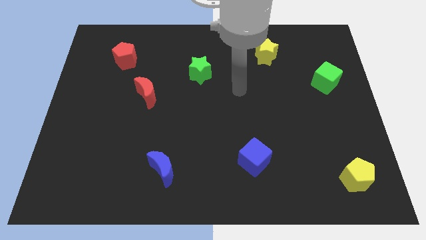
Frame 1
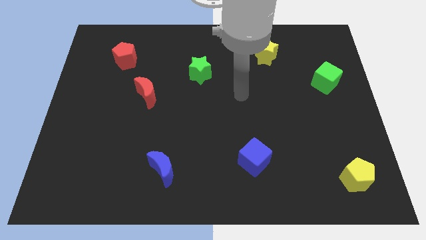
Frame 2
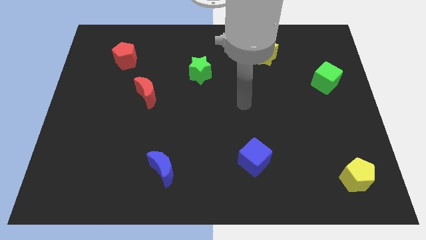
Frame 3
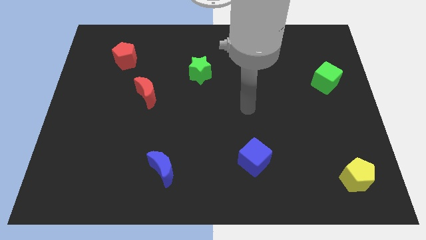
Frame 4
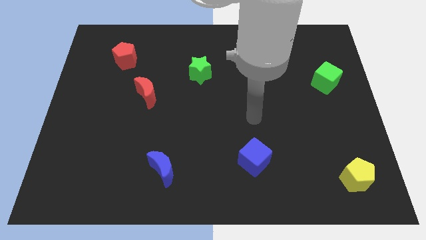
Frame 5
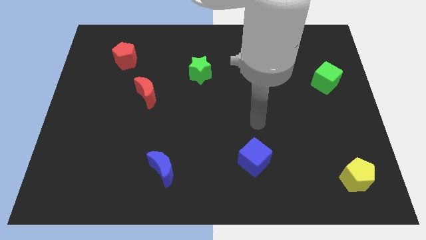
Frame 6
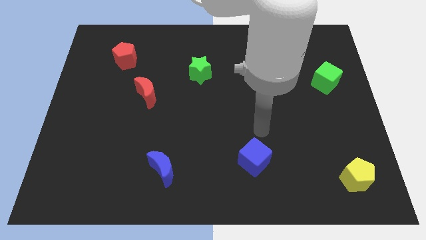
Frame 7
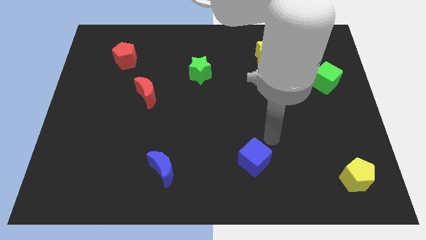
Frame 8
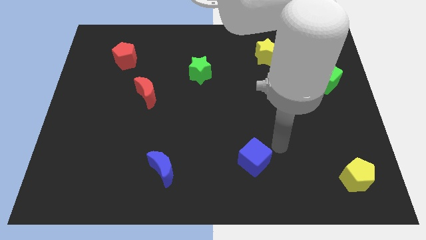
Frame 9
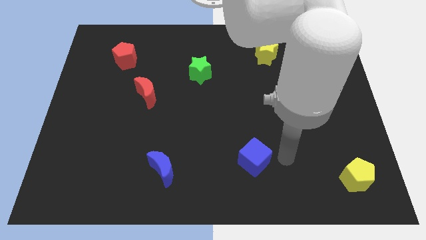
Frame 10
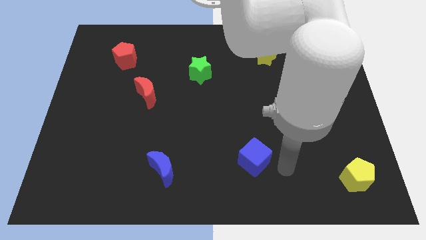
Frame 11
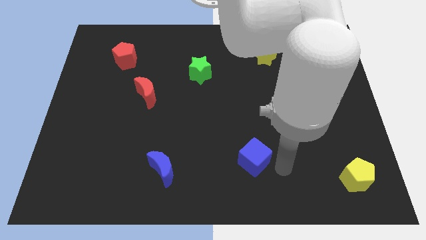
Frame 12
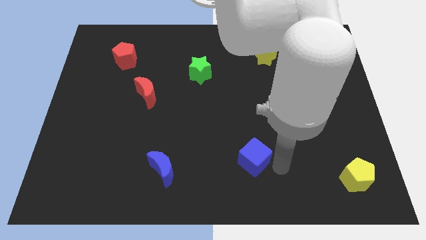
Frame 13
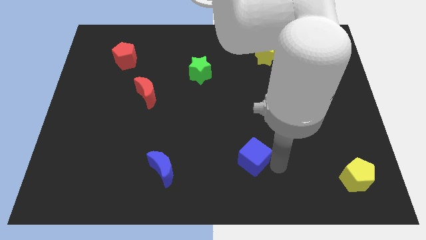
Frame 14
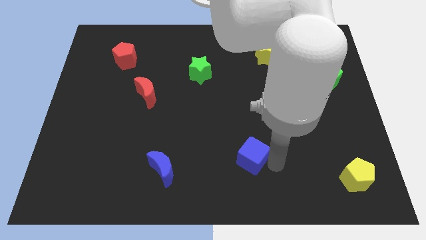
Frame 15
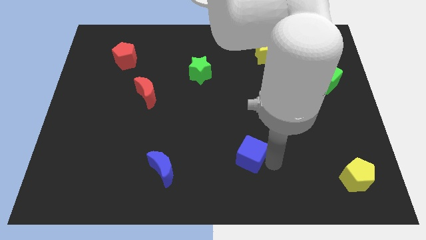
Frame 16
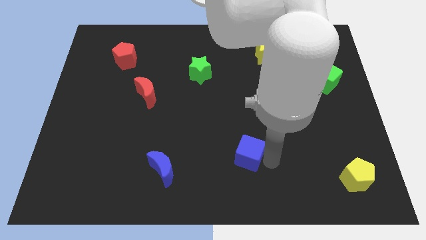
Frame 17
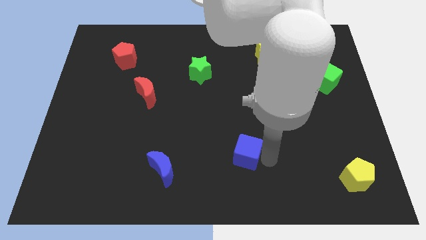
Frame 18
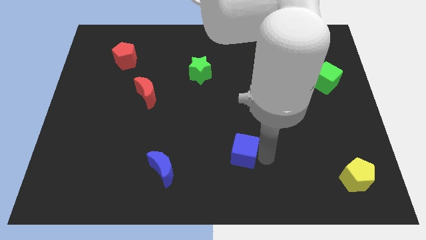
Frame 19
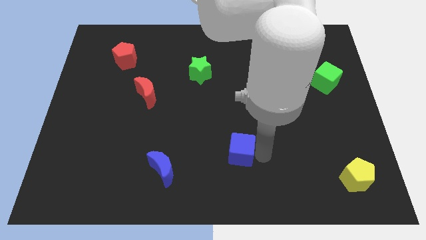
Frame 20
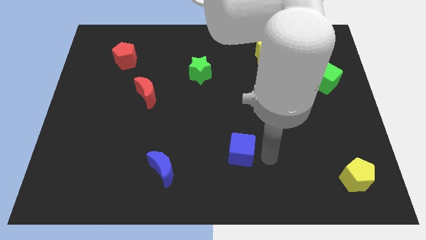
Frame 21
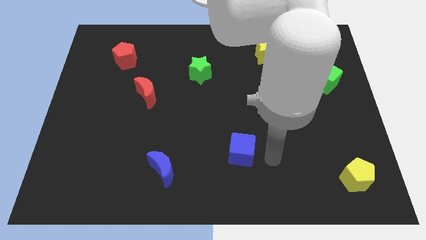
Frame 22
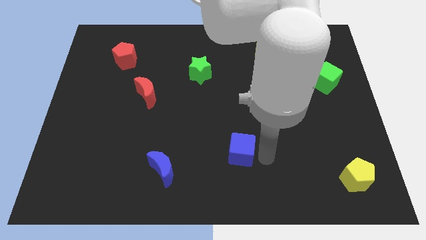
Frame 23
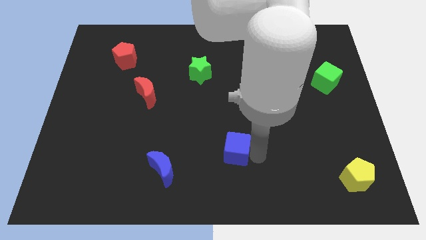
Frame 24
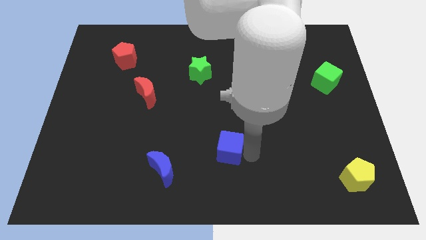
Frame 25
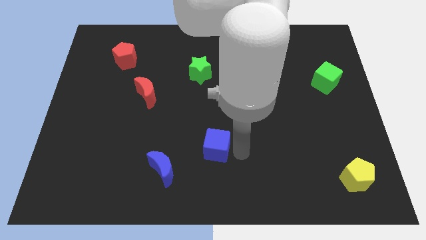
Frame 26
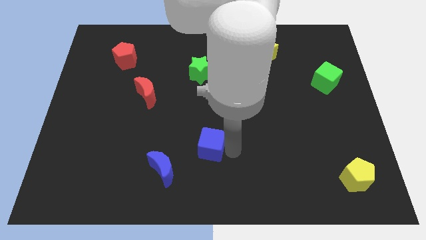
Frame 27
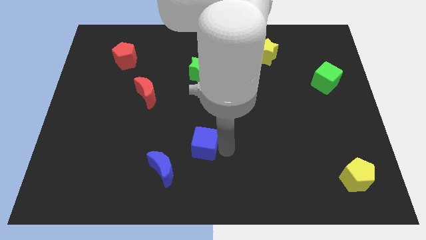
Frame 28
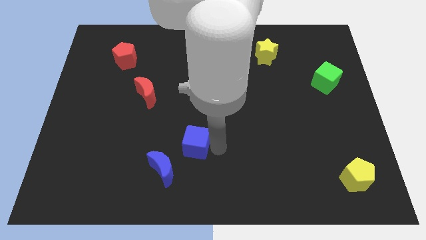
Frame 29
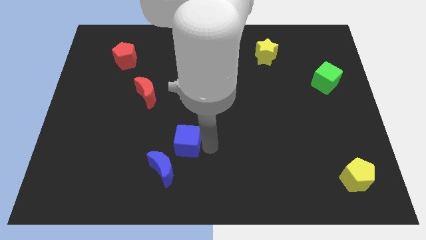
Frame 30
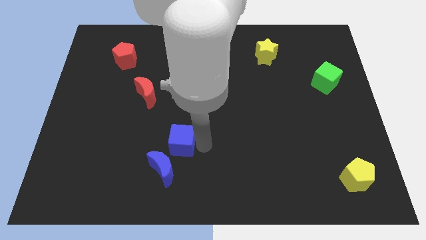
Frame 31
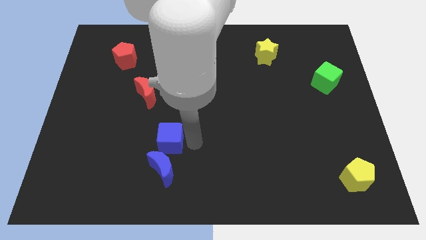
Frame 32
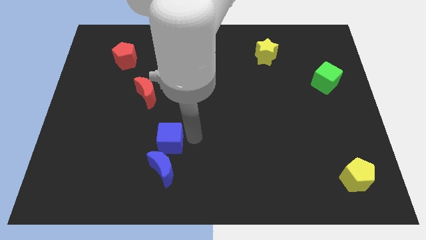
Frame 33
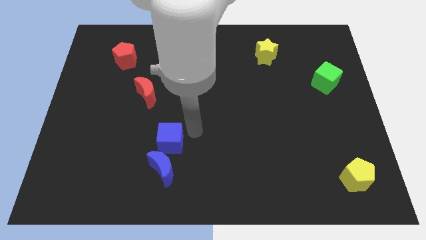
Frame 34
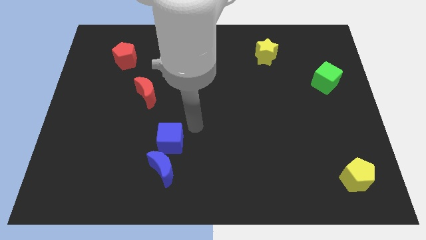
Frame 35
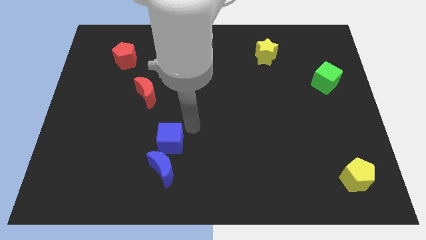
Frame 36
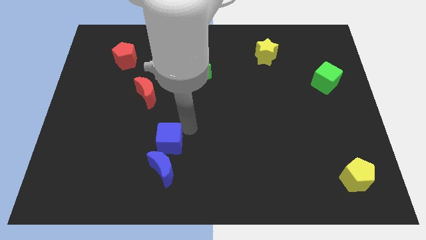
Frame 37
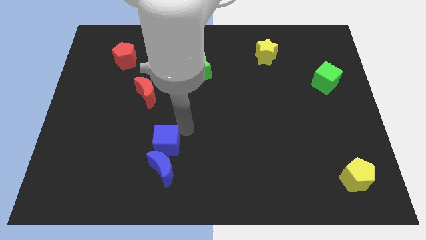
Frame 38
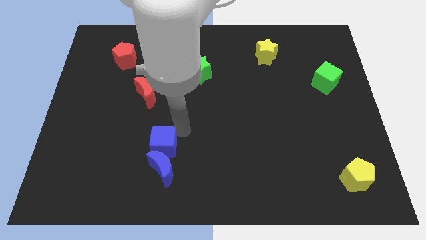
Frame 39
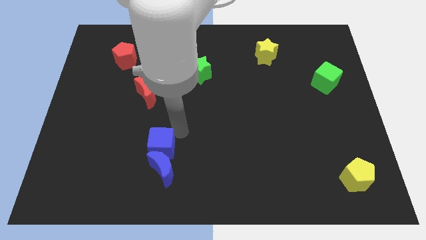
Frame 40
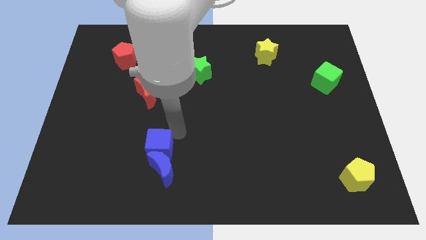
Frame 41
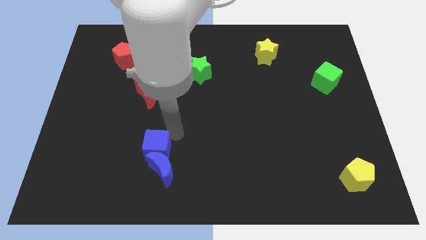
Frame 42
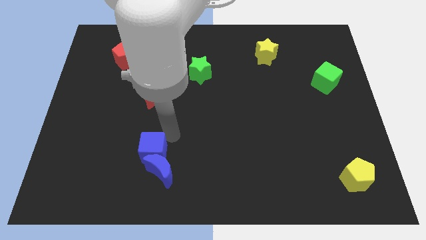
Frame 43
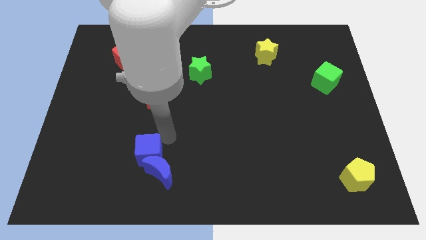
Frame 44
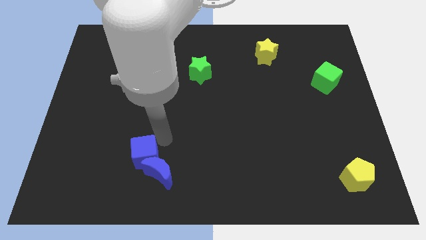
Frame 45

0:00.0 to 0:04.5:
move the blue cube to the left of the blue moon

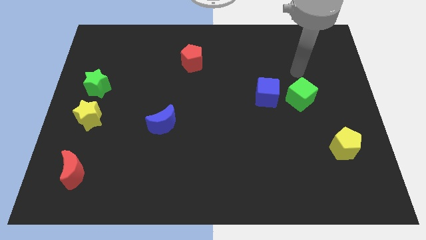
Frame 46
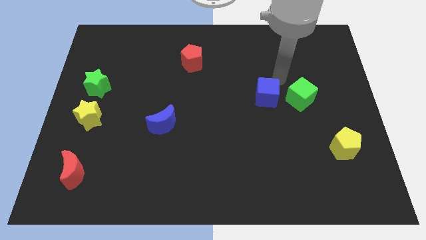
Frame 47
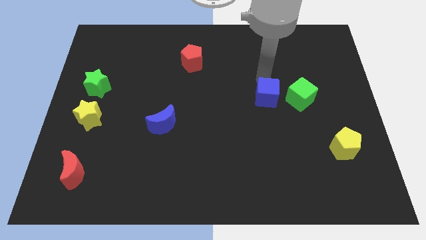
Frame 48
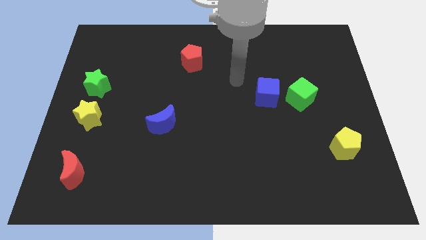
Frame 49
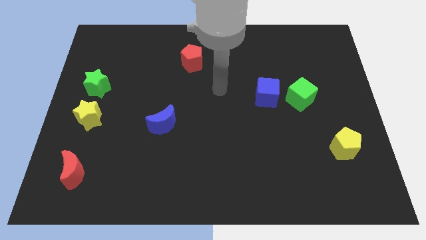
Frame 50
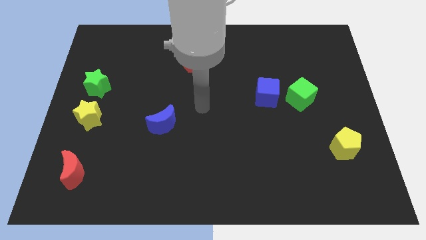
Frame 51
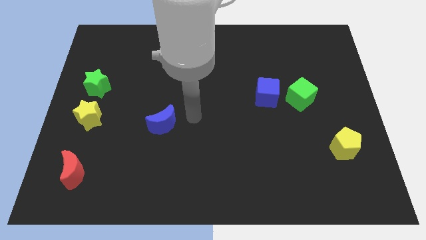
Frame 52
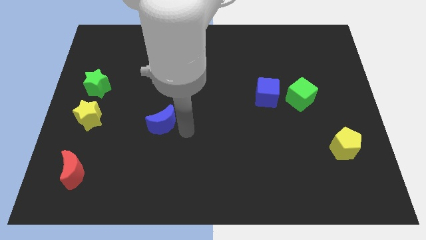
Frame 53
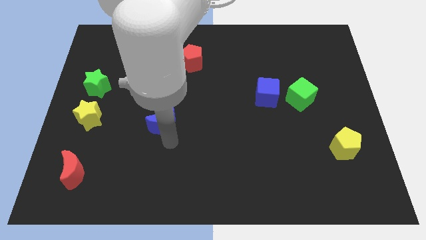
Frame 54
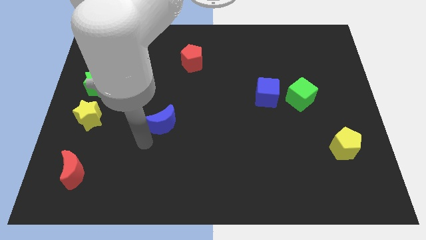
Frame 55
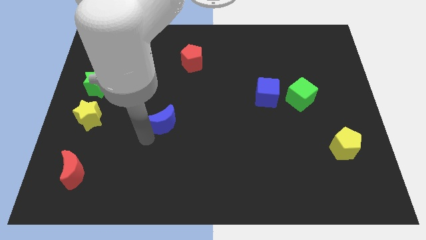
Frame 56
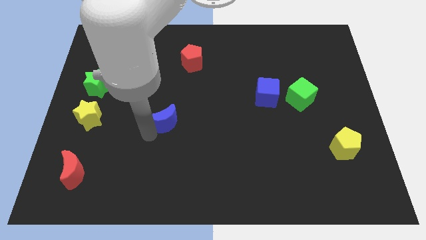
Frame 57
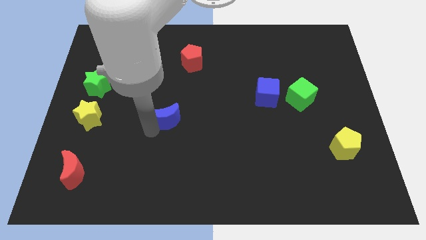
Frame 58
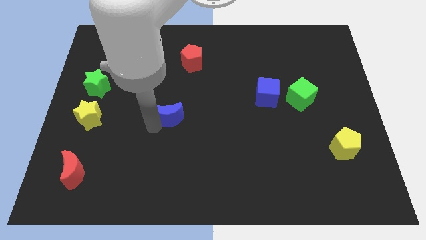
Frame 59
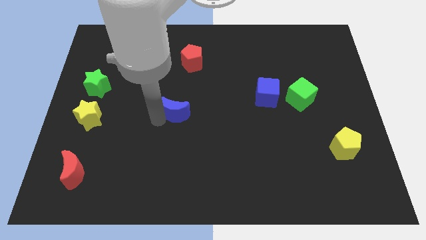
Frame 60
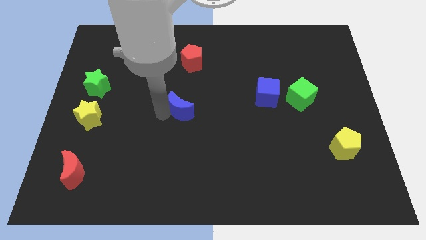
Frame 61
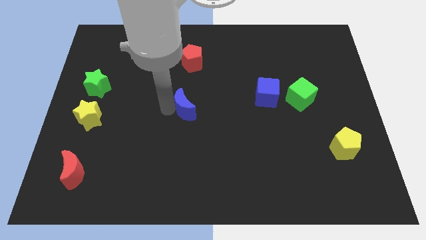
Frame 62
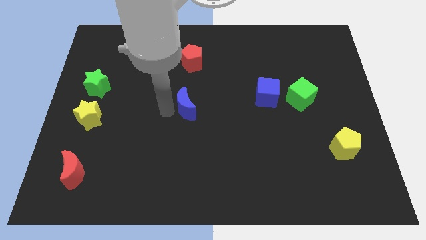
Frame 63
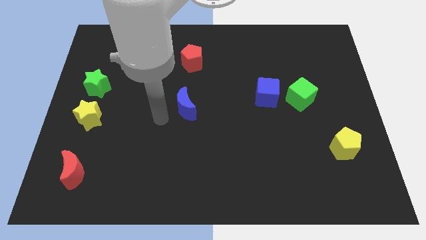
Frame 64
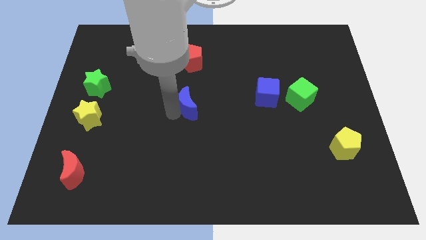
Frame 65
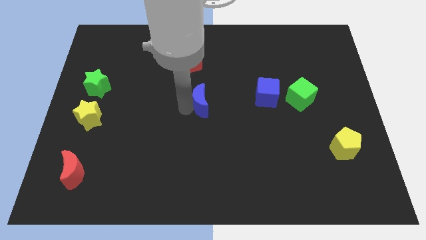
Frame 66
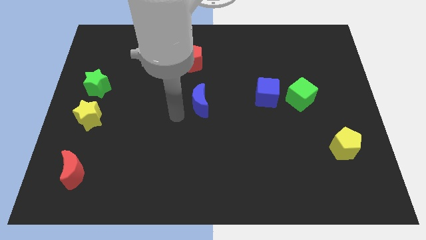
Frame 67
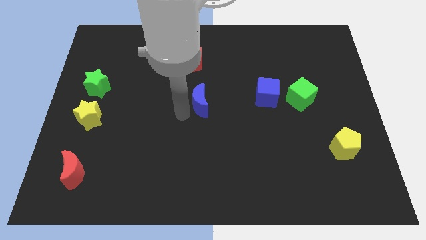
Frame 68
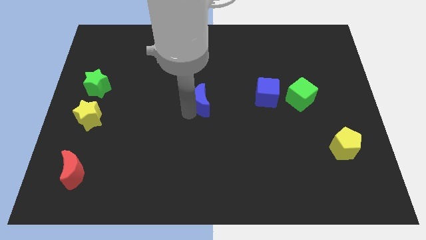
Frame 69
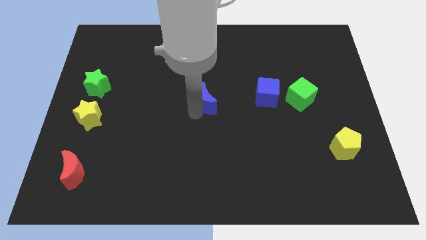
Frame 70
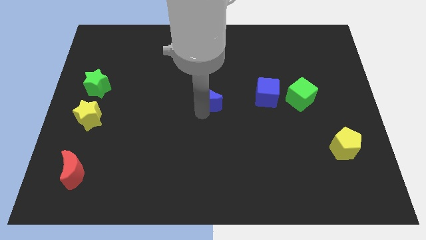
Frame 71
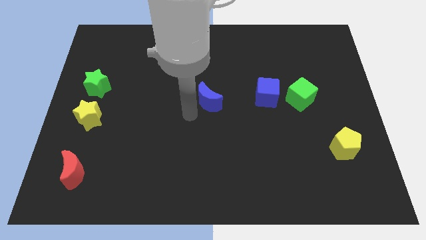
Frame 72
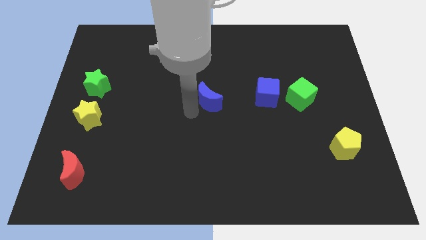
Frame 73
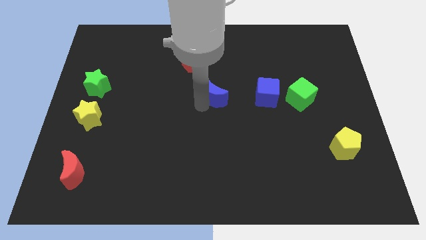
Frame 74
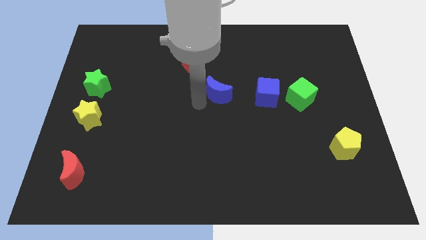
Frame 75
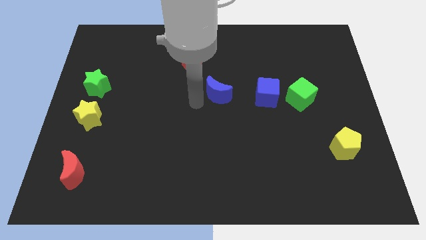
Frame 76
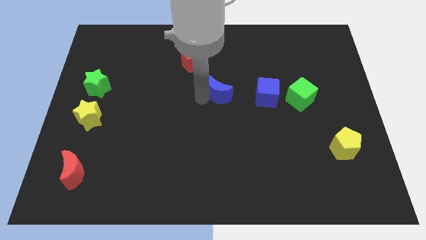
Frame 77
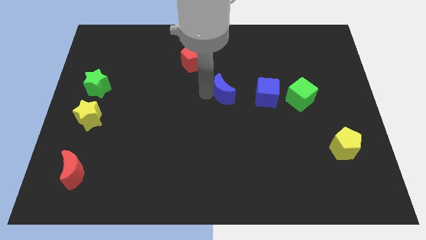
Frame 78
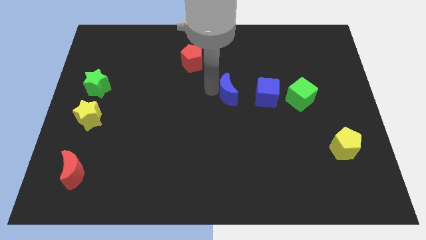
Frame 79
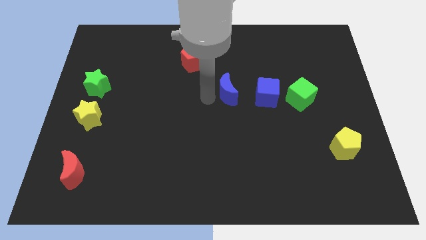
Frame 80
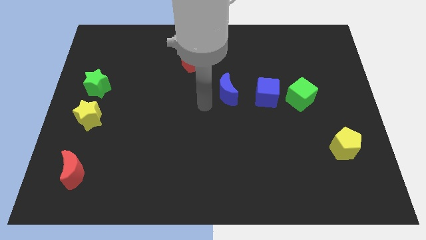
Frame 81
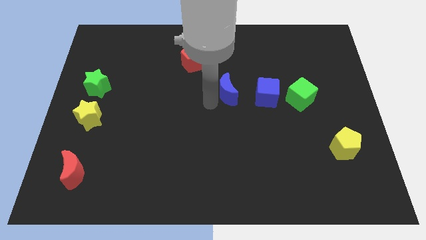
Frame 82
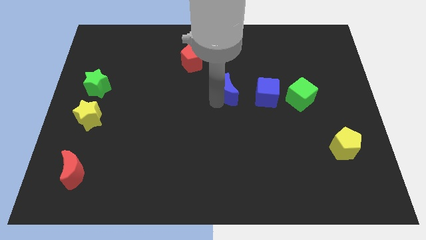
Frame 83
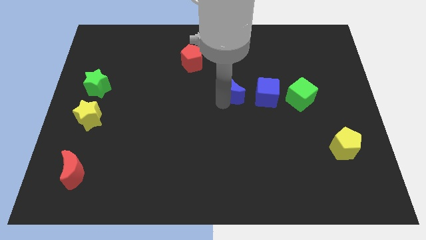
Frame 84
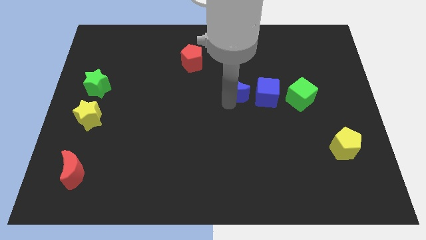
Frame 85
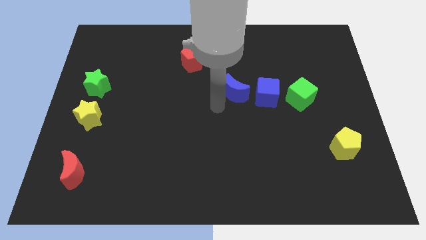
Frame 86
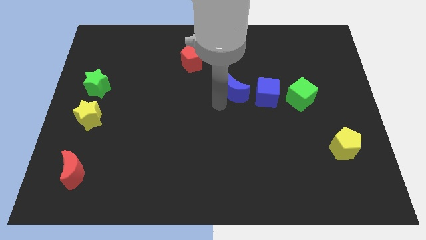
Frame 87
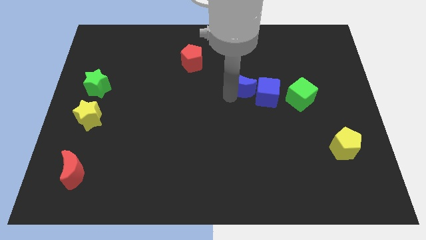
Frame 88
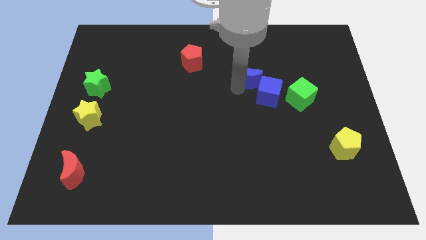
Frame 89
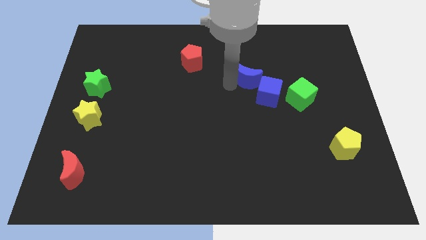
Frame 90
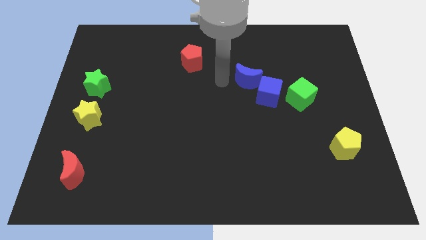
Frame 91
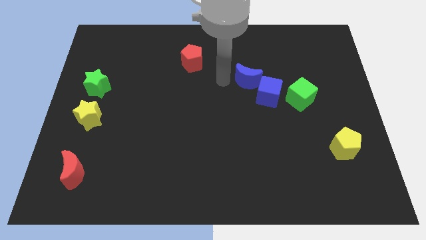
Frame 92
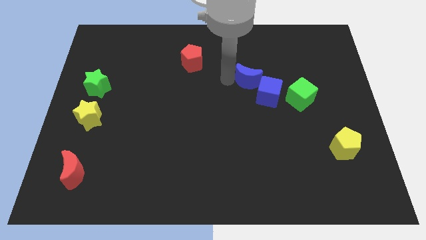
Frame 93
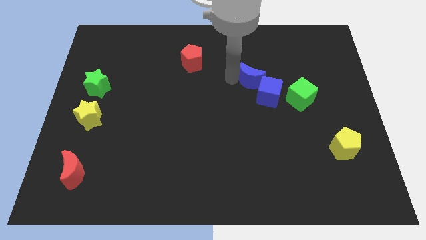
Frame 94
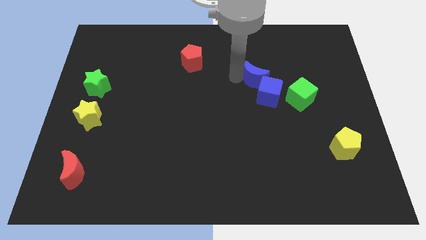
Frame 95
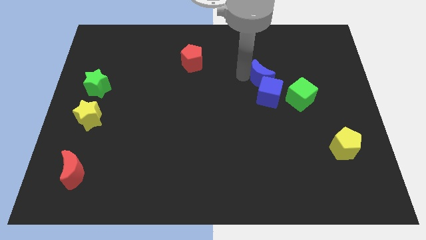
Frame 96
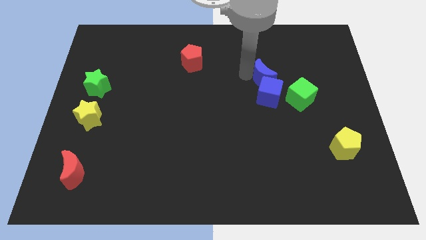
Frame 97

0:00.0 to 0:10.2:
move the blue moon to the top right of the blue cube
